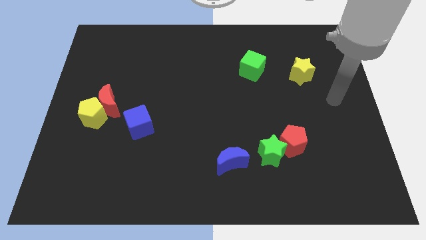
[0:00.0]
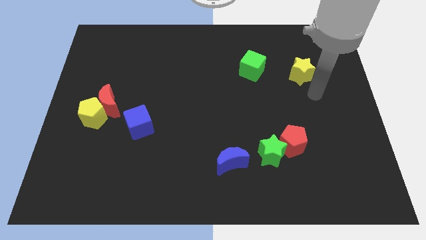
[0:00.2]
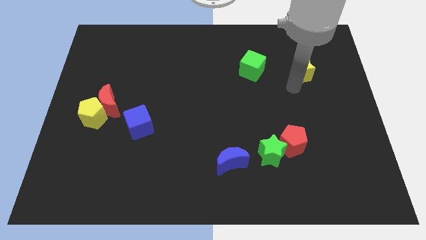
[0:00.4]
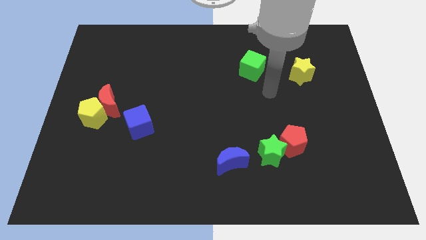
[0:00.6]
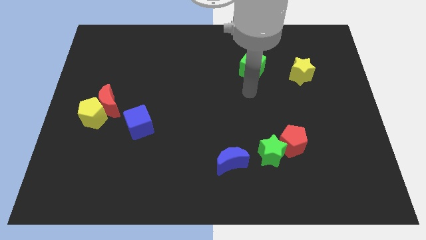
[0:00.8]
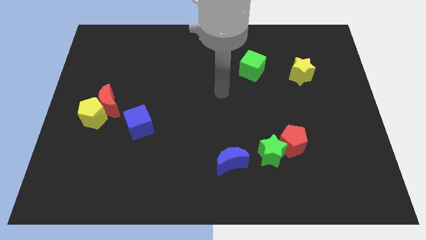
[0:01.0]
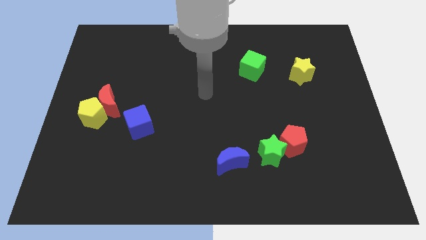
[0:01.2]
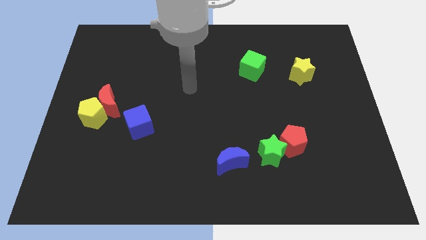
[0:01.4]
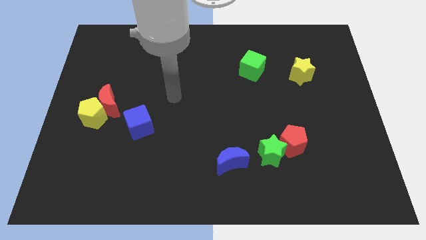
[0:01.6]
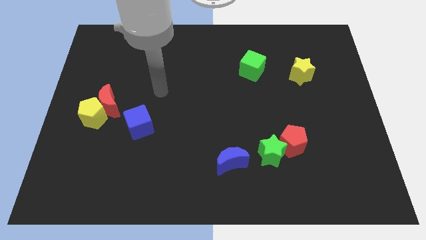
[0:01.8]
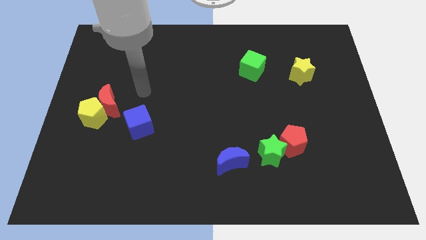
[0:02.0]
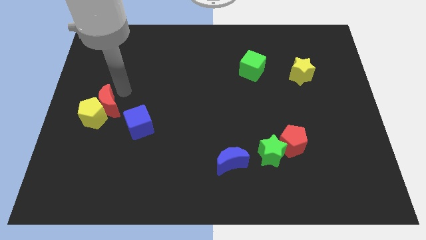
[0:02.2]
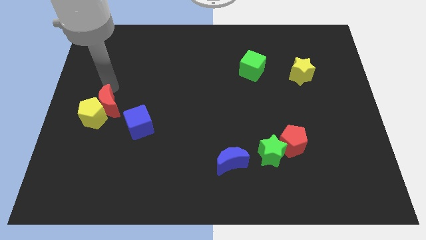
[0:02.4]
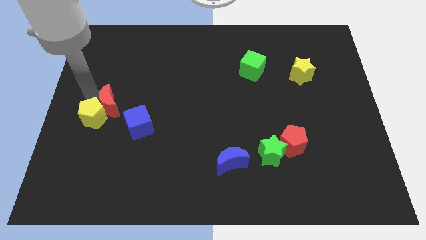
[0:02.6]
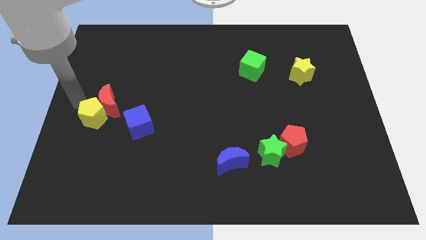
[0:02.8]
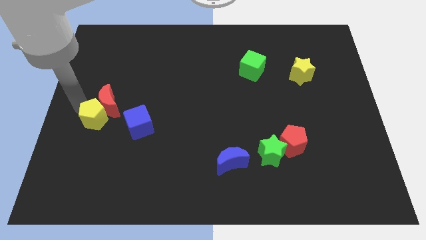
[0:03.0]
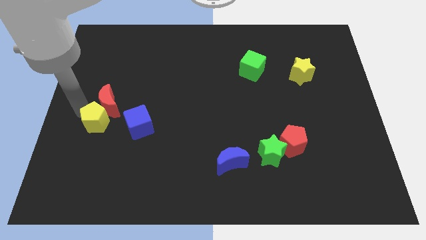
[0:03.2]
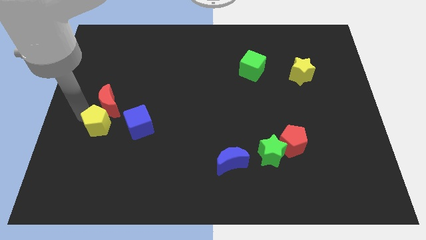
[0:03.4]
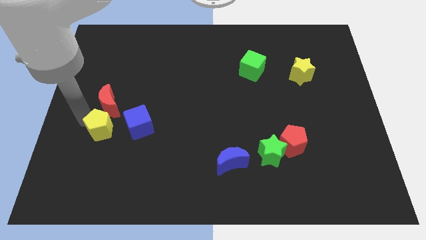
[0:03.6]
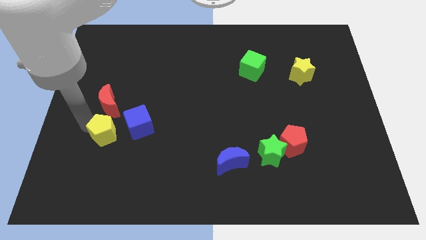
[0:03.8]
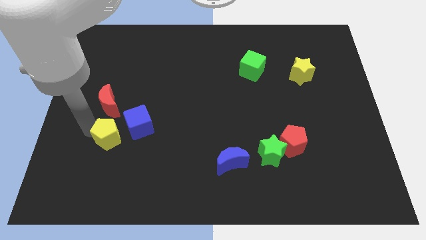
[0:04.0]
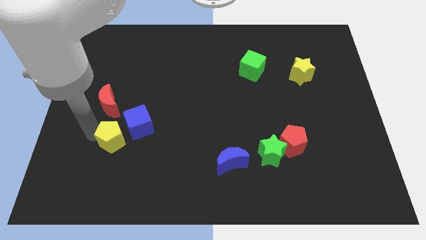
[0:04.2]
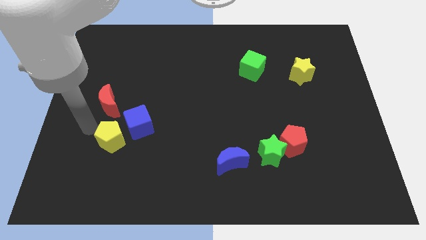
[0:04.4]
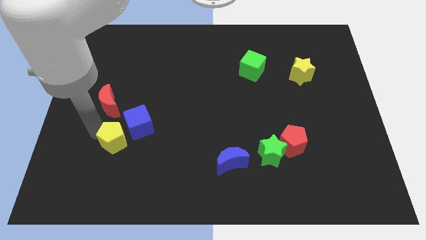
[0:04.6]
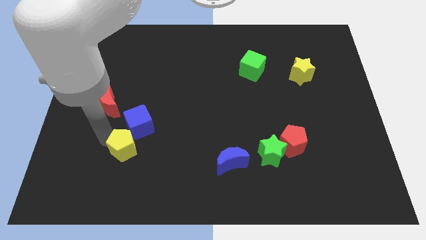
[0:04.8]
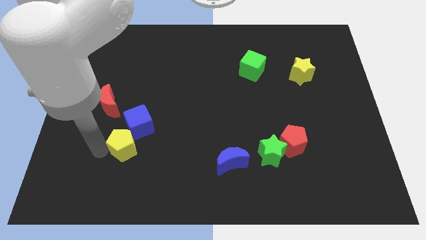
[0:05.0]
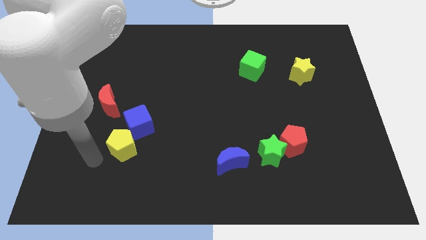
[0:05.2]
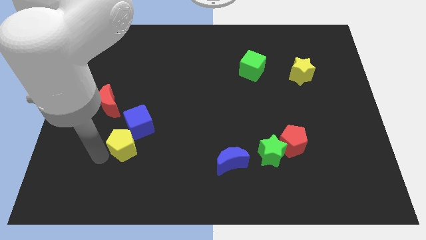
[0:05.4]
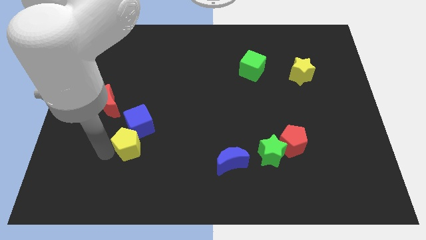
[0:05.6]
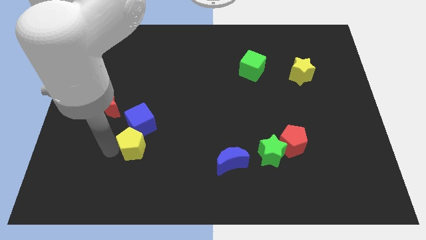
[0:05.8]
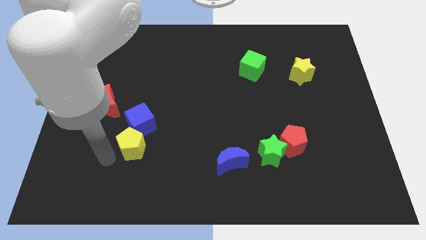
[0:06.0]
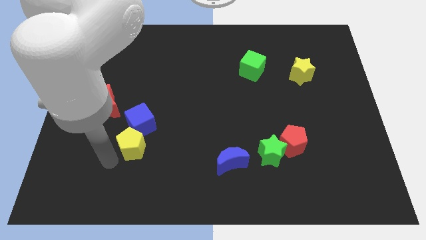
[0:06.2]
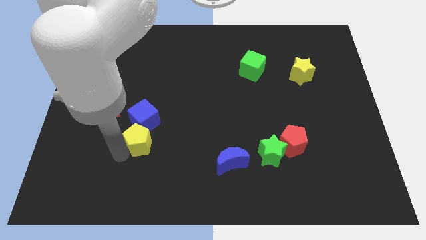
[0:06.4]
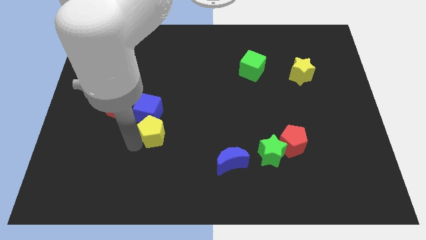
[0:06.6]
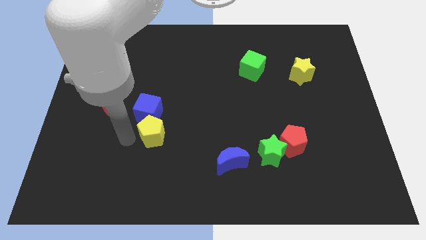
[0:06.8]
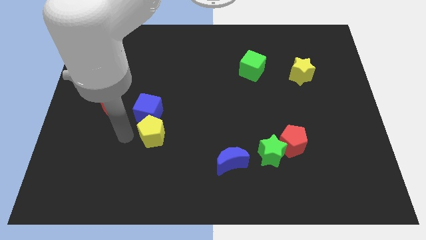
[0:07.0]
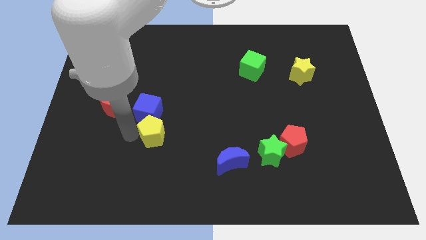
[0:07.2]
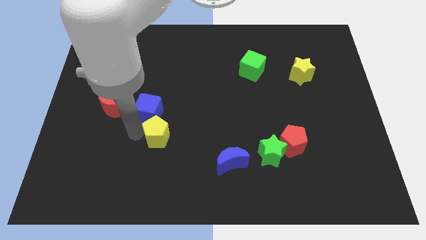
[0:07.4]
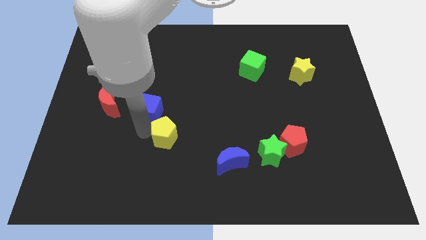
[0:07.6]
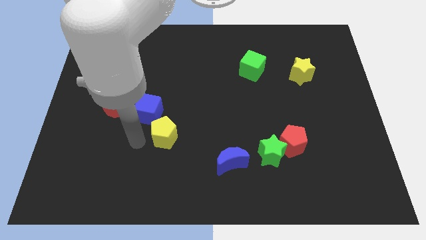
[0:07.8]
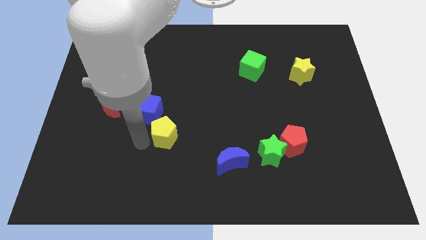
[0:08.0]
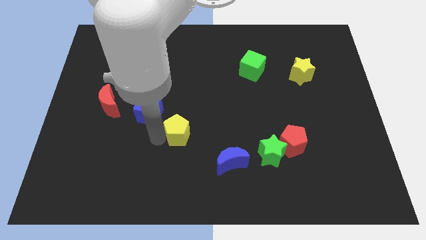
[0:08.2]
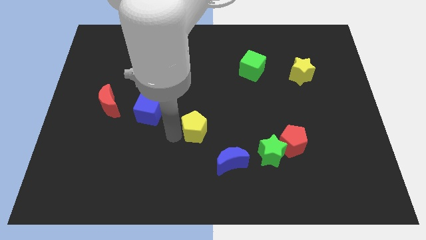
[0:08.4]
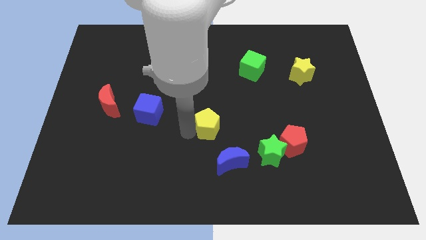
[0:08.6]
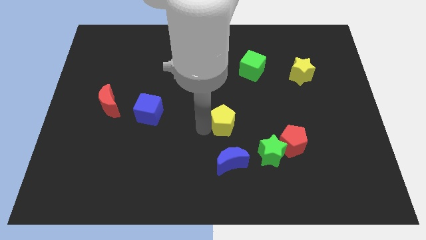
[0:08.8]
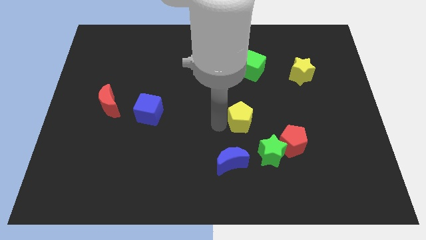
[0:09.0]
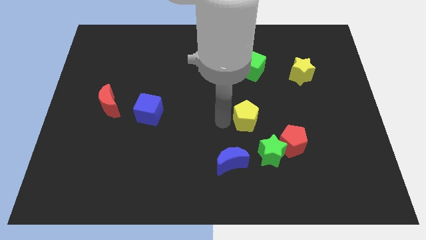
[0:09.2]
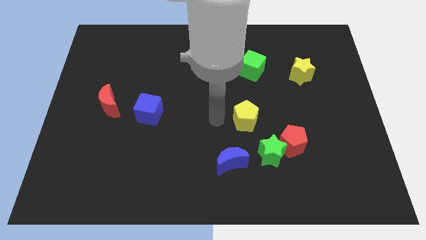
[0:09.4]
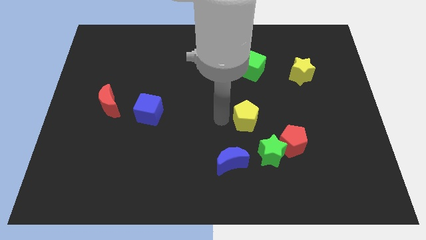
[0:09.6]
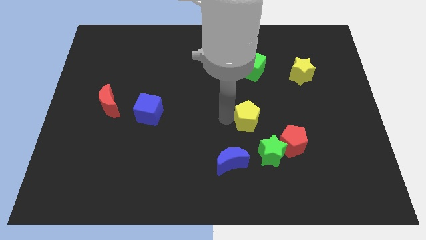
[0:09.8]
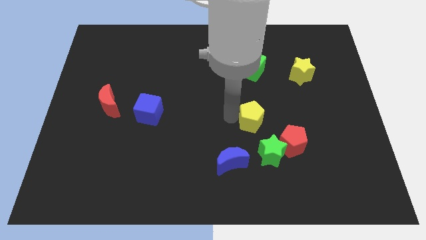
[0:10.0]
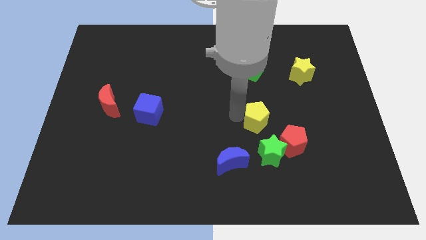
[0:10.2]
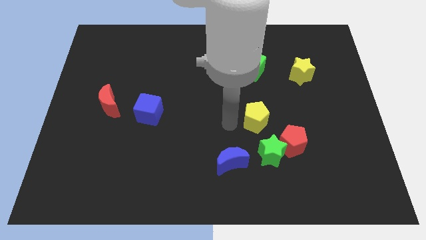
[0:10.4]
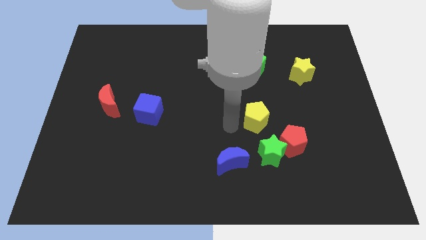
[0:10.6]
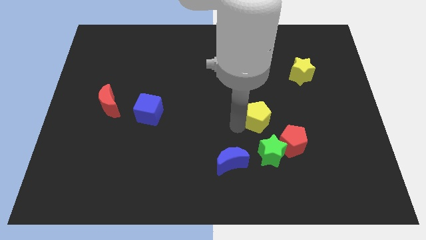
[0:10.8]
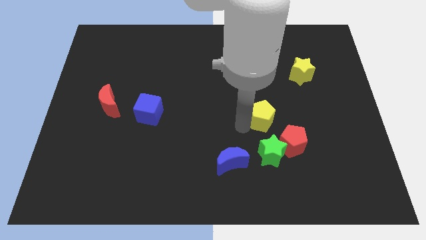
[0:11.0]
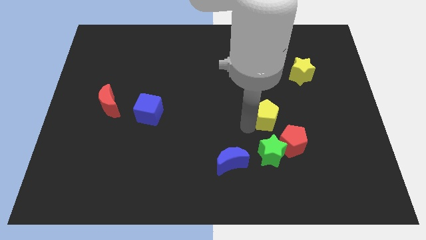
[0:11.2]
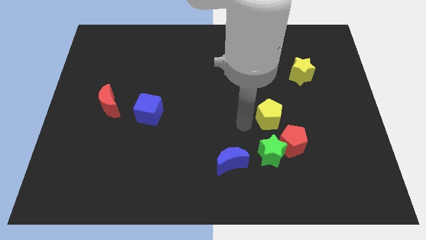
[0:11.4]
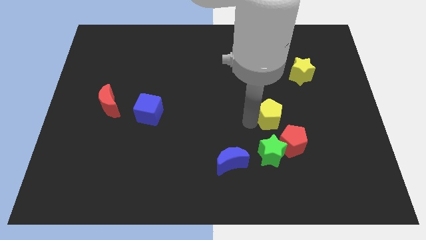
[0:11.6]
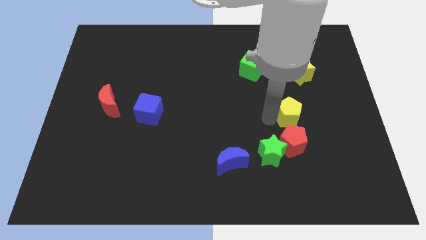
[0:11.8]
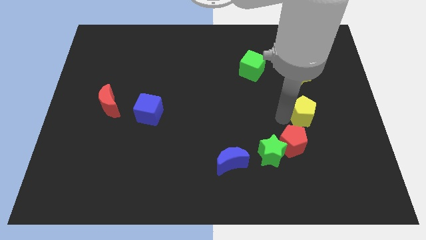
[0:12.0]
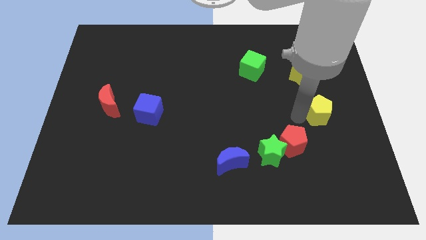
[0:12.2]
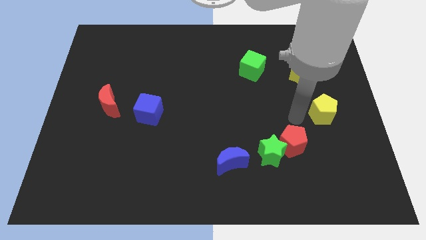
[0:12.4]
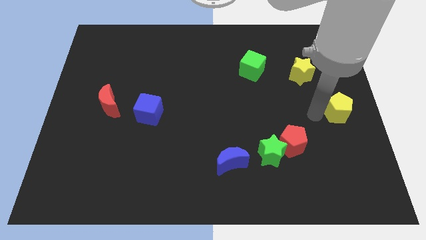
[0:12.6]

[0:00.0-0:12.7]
push the yellow pentagon to the center right
